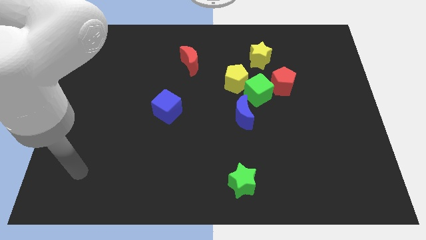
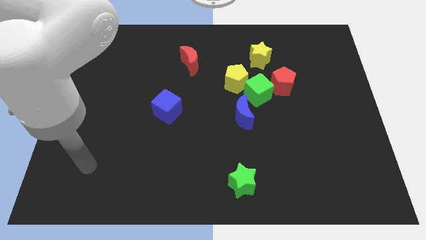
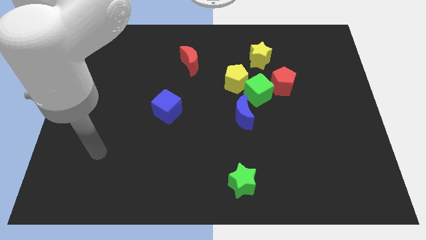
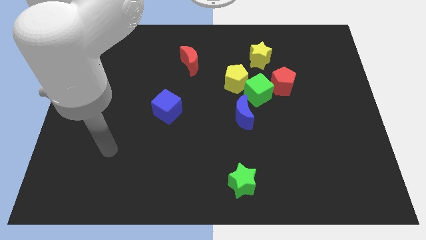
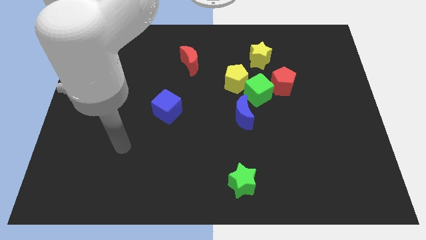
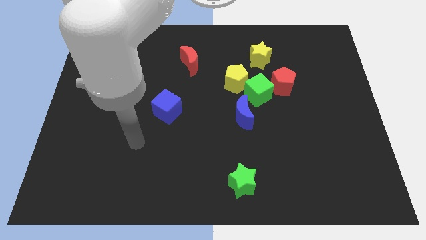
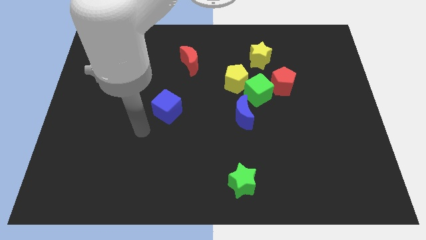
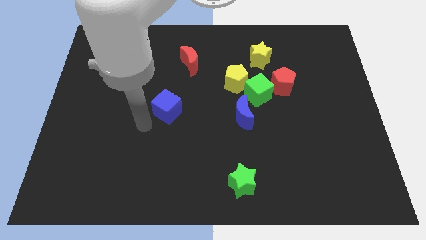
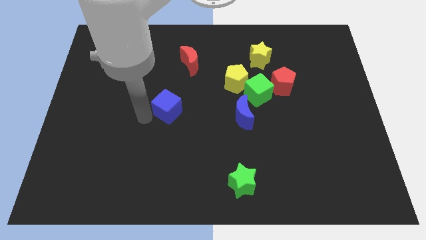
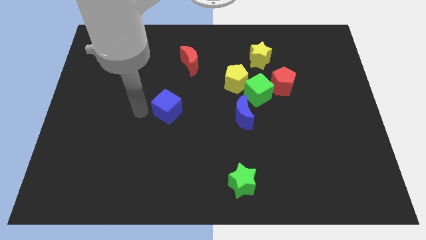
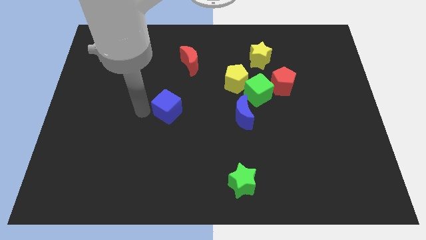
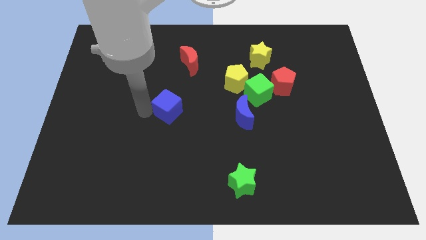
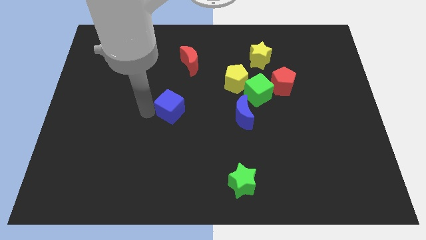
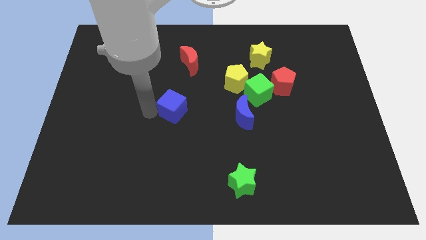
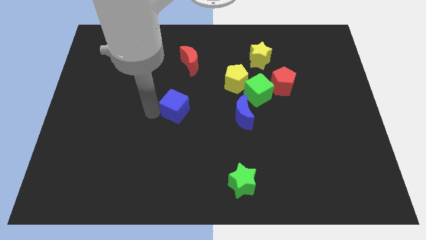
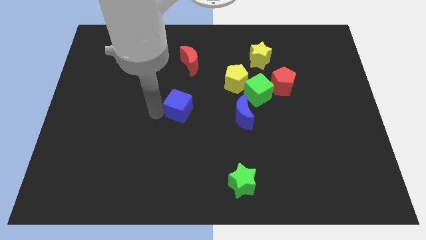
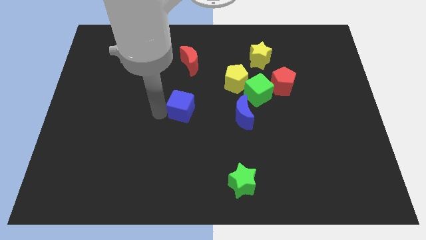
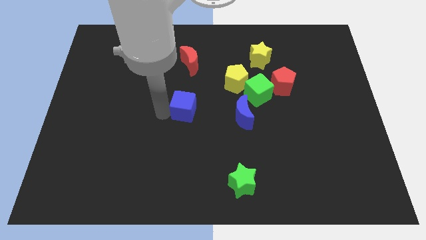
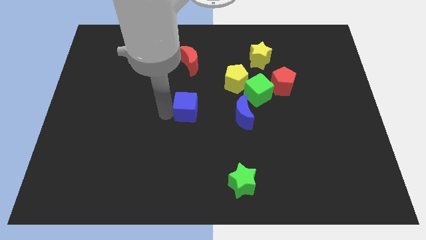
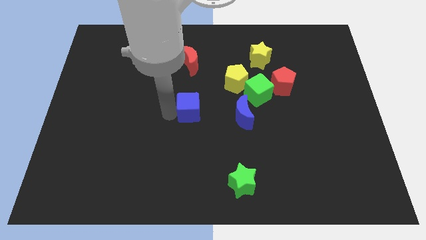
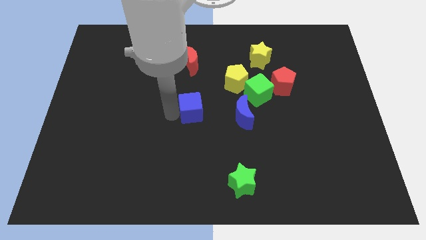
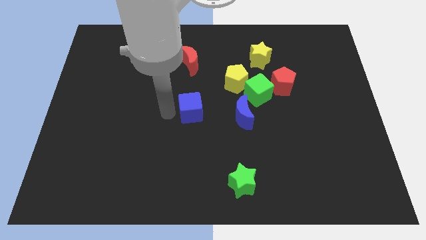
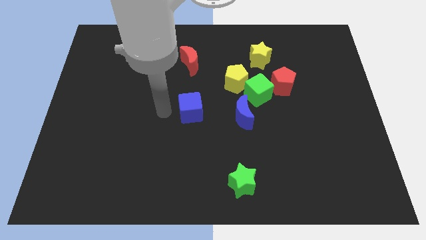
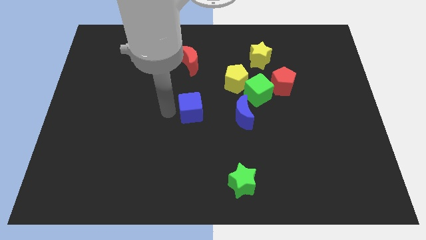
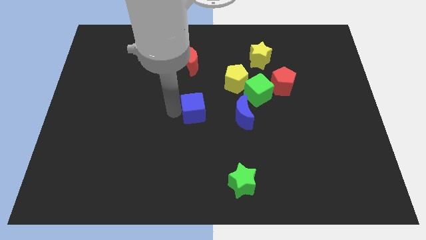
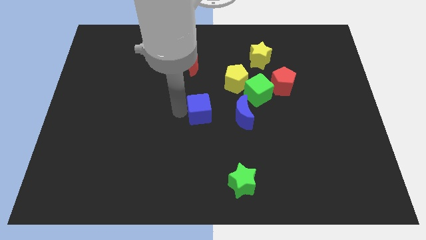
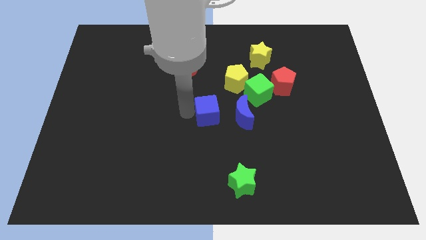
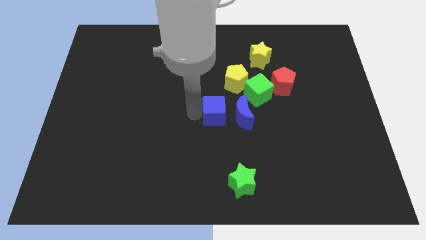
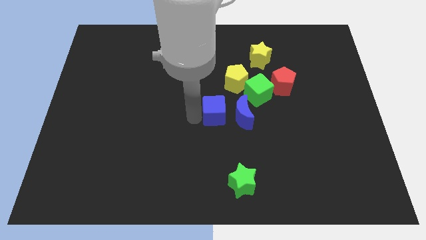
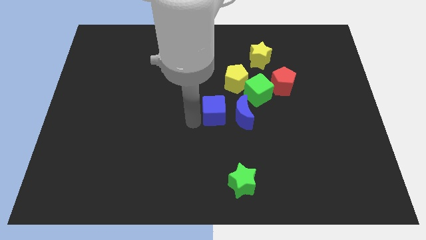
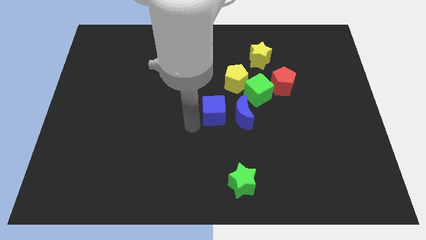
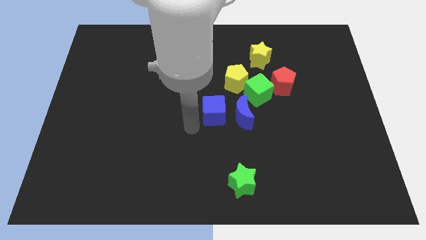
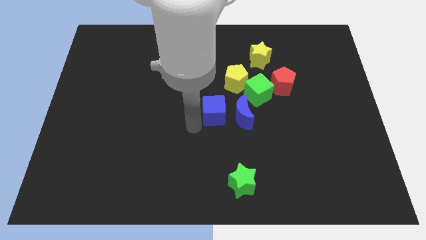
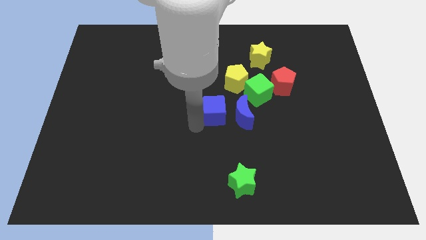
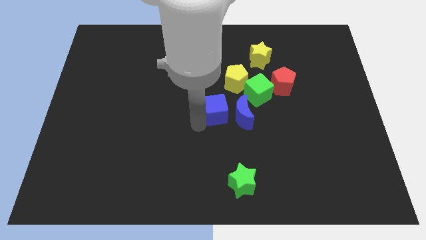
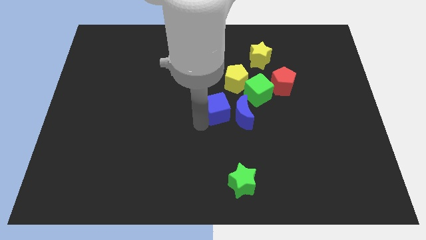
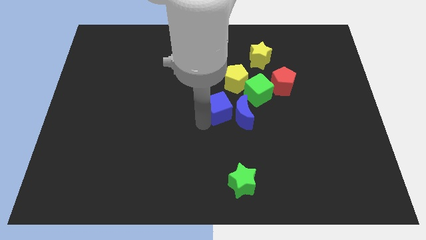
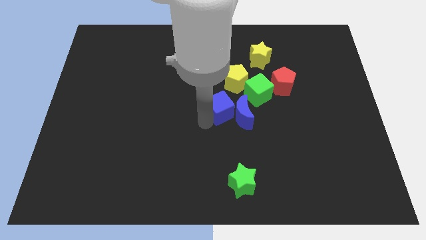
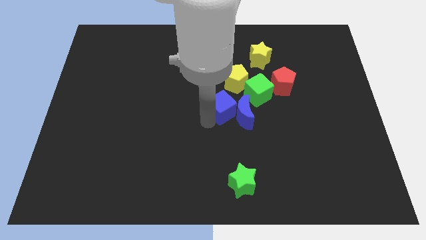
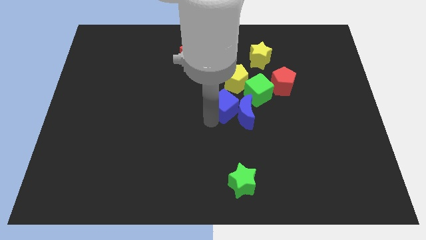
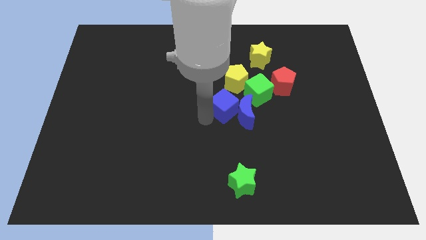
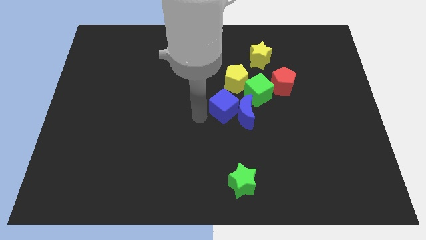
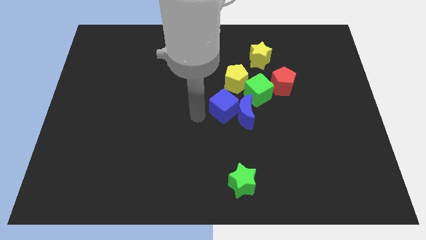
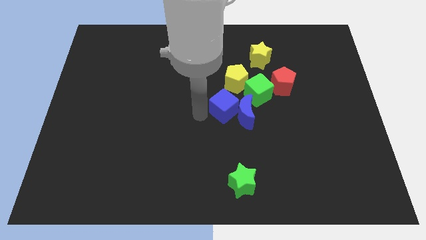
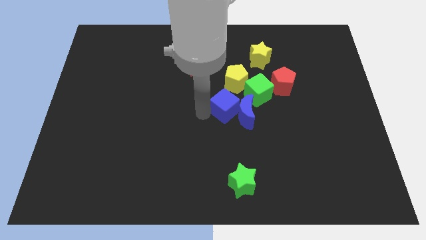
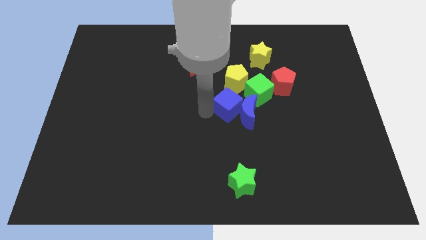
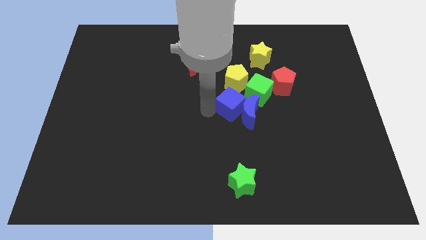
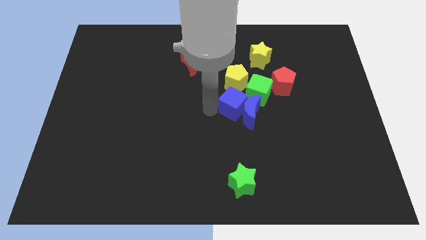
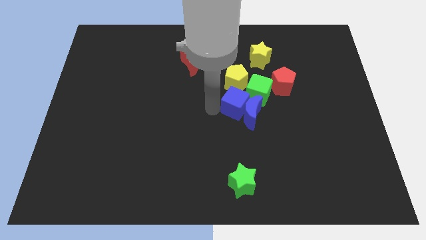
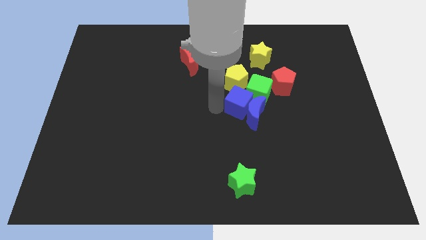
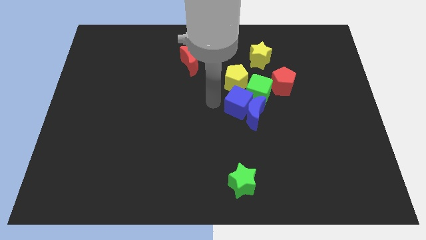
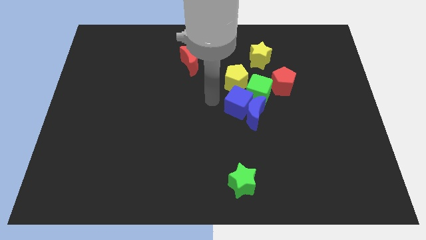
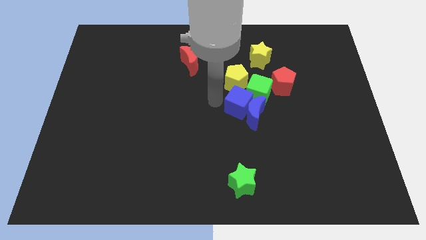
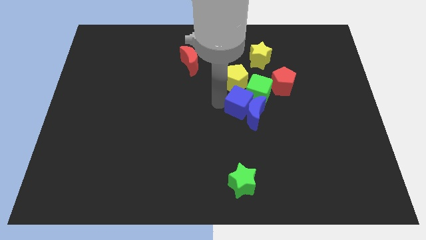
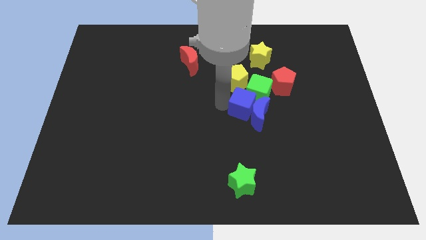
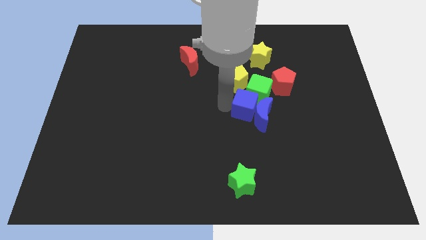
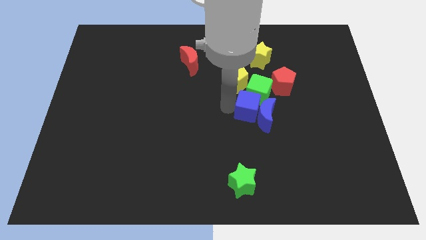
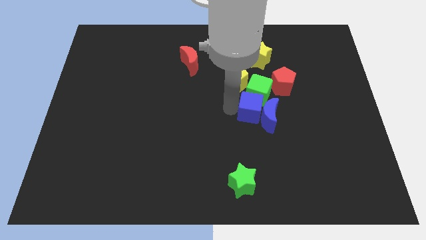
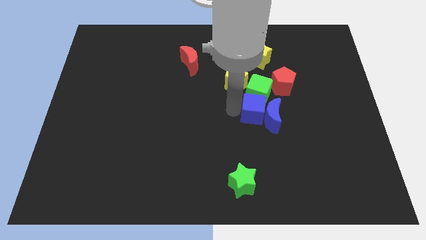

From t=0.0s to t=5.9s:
push the blue cube to the right

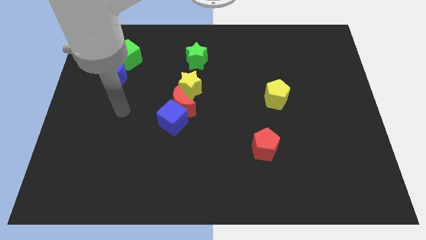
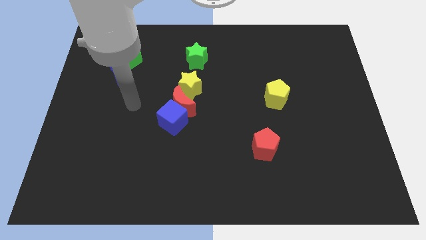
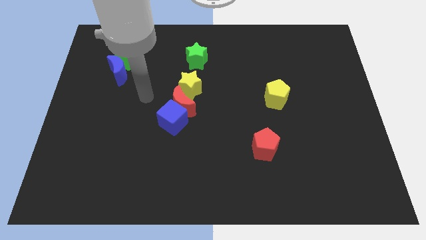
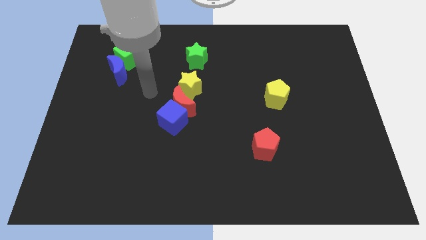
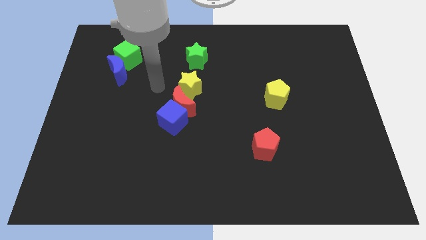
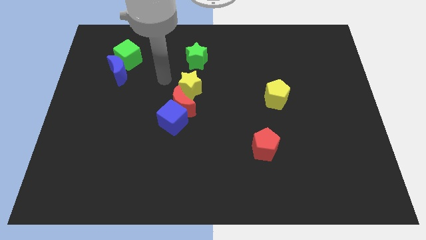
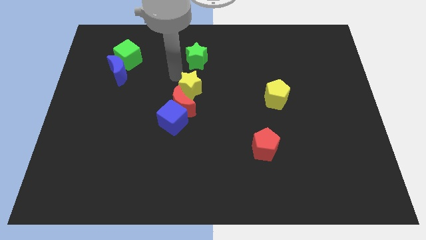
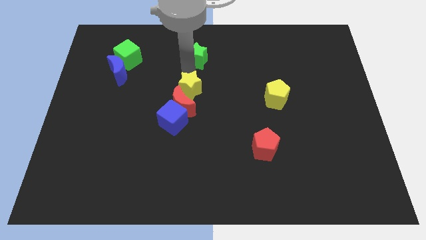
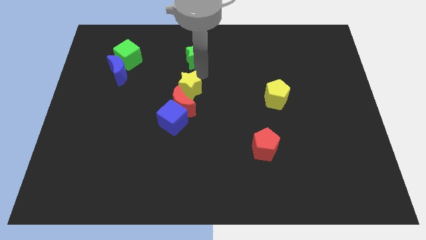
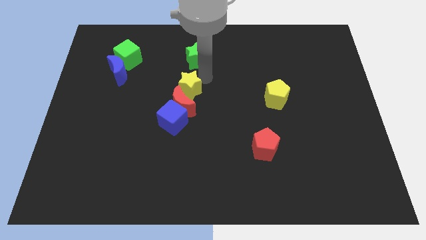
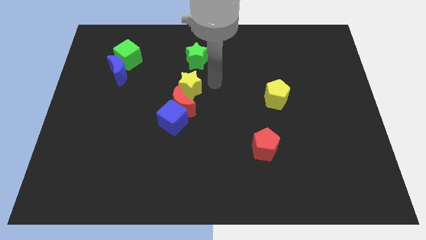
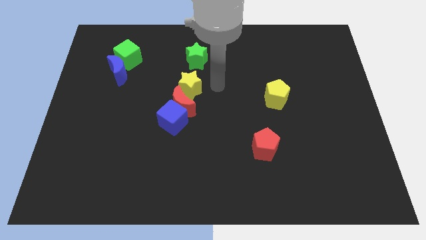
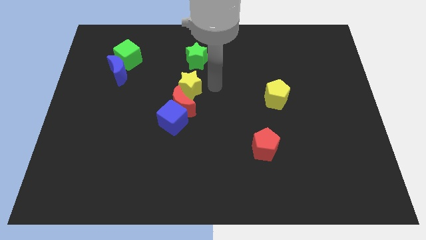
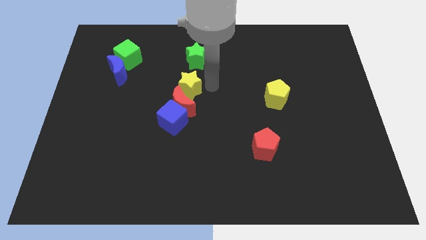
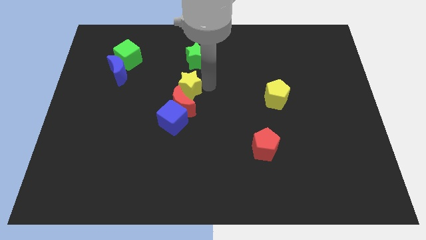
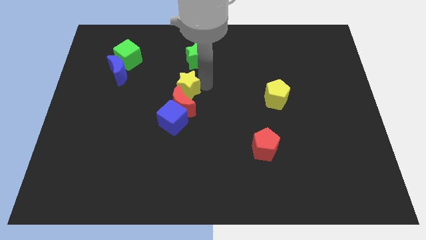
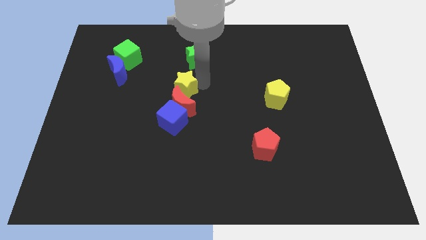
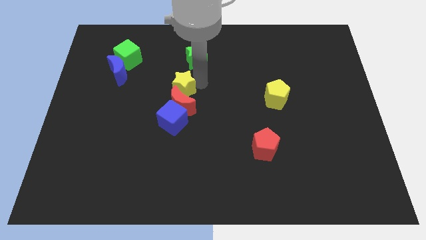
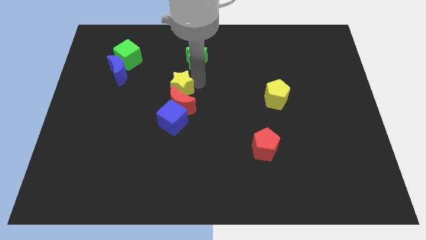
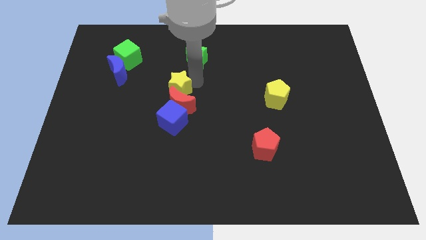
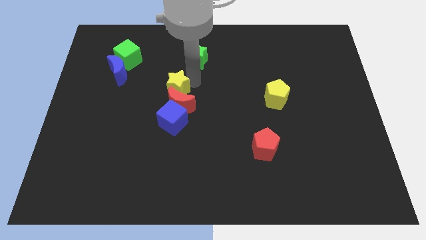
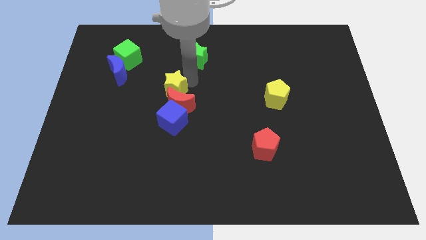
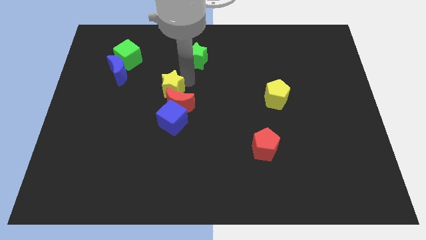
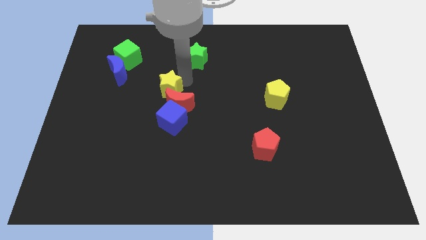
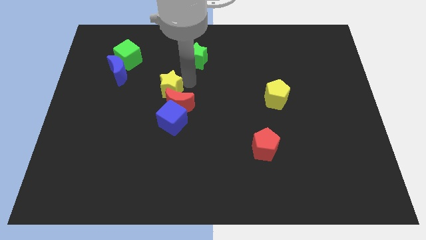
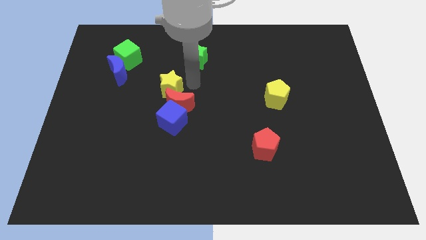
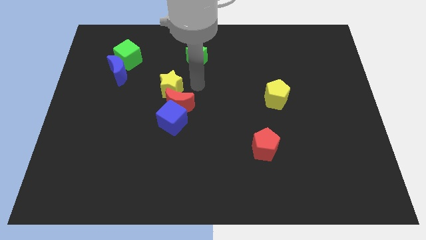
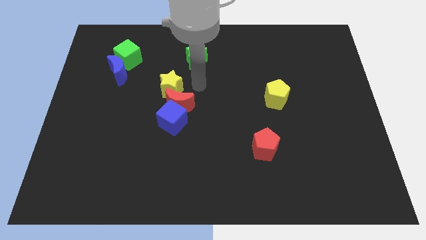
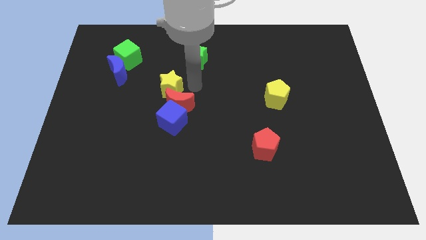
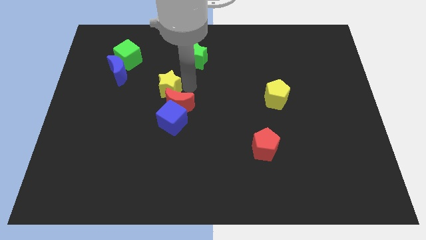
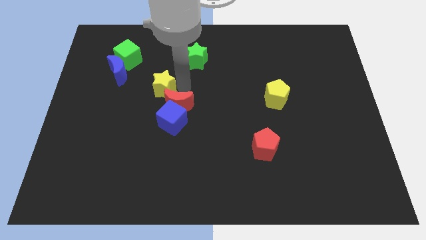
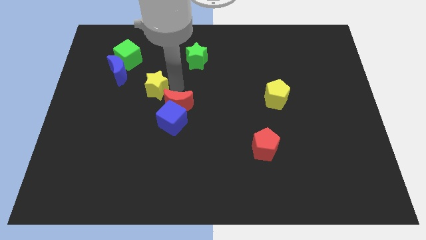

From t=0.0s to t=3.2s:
slide the yellow star a little to the left
